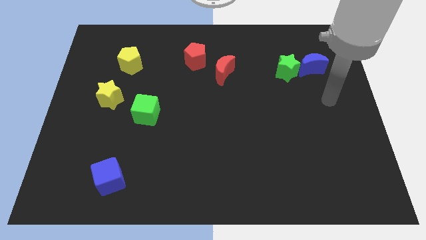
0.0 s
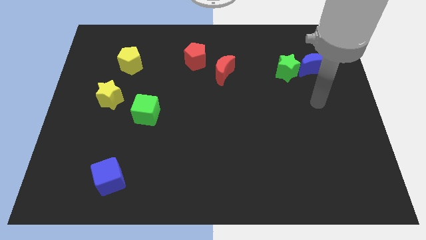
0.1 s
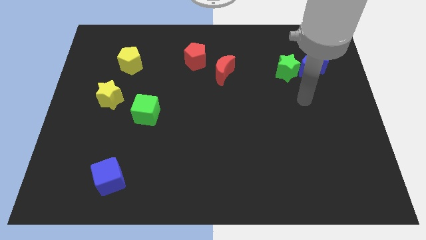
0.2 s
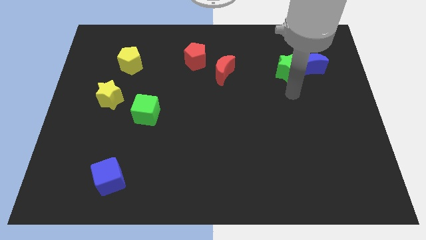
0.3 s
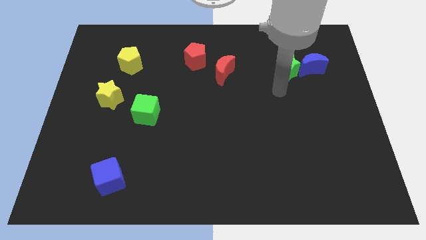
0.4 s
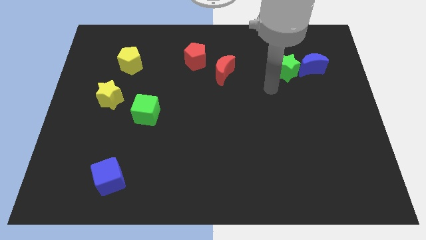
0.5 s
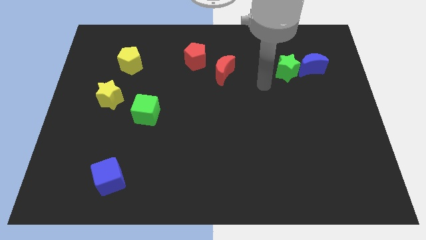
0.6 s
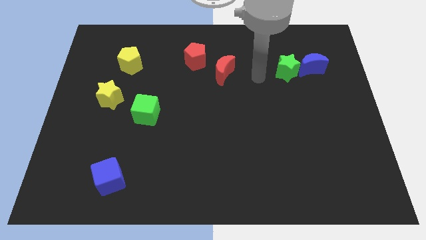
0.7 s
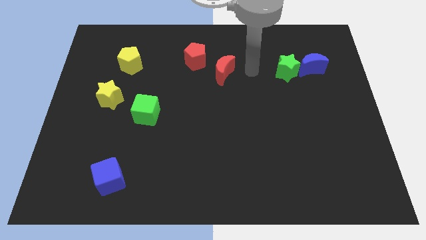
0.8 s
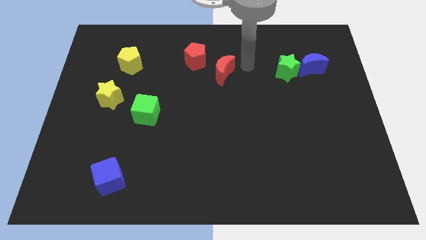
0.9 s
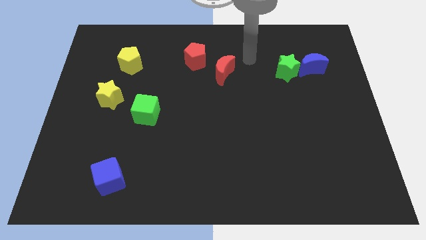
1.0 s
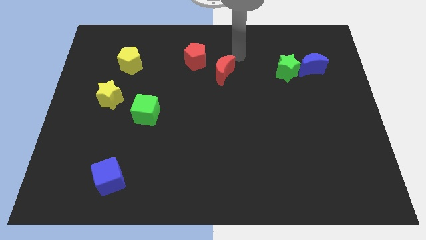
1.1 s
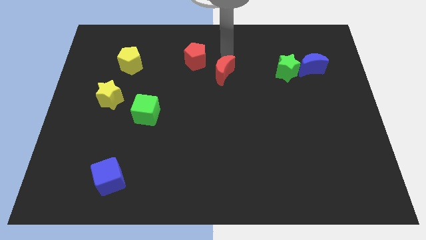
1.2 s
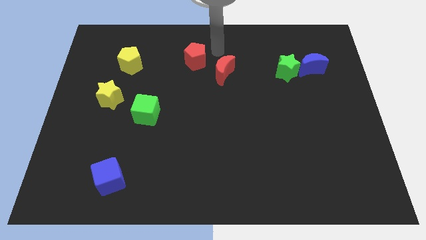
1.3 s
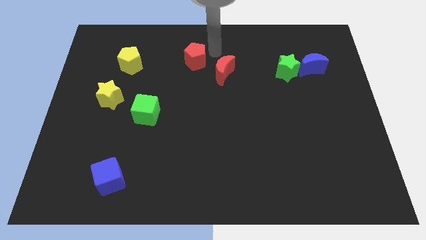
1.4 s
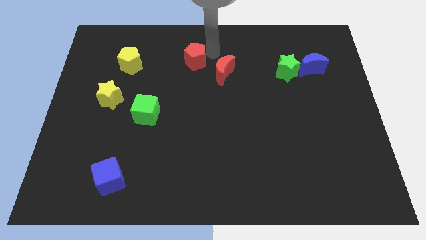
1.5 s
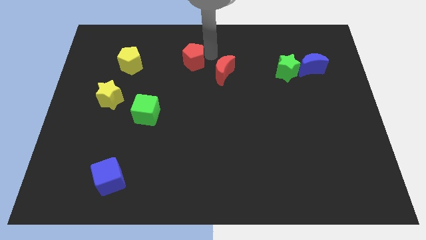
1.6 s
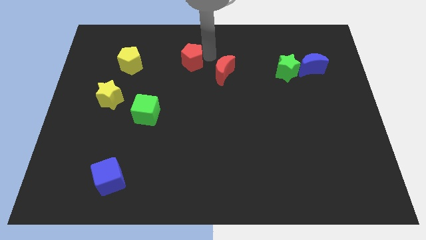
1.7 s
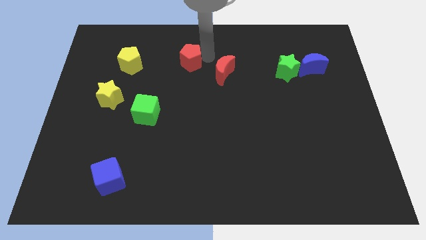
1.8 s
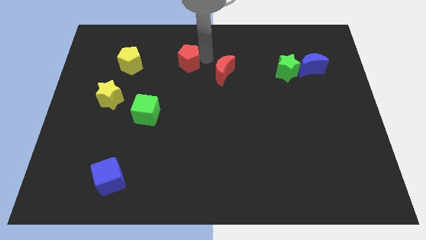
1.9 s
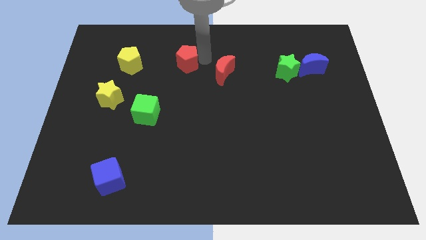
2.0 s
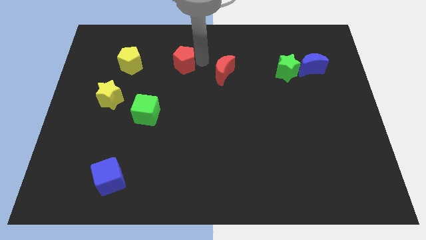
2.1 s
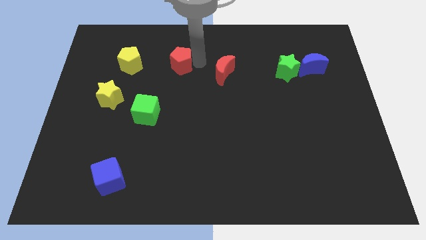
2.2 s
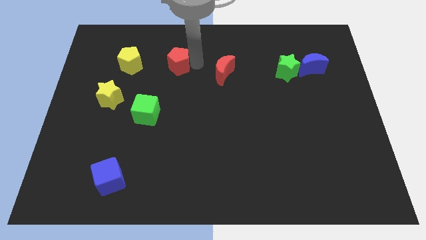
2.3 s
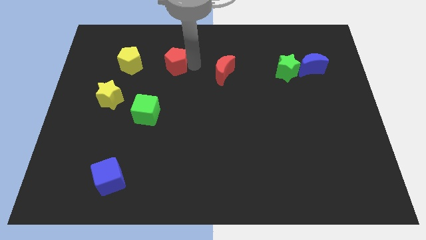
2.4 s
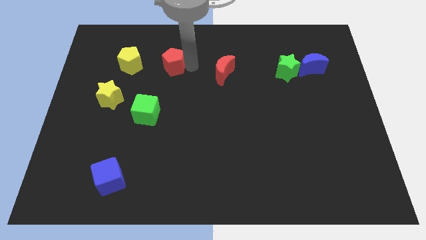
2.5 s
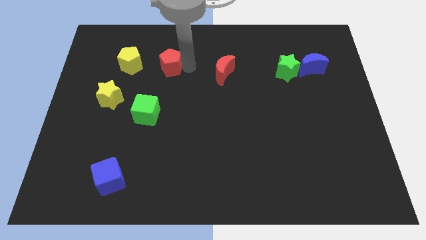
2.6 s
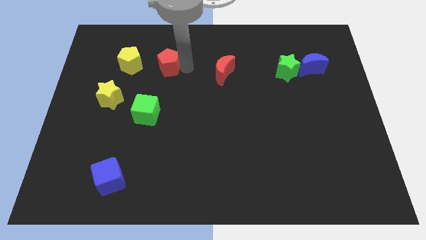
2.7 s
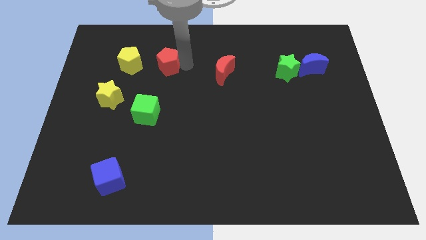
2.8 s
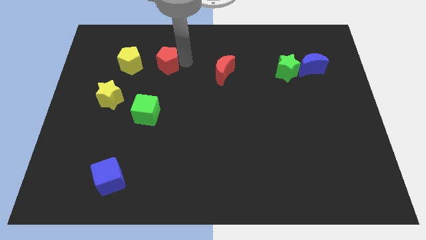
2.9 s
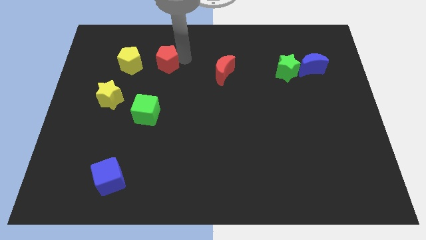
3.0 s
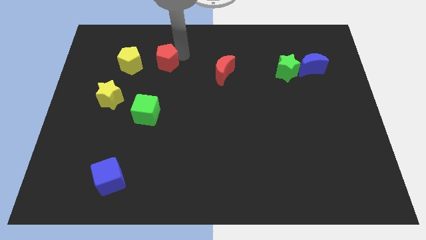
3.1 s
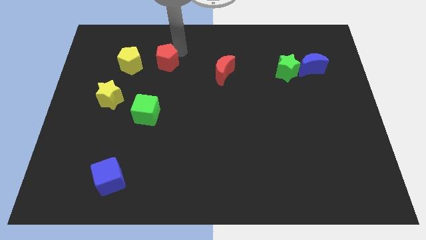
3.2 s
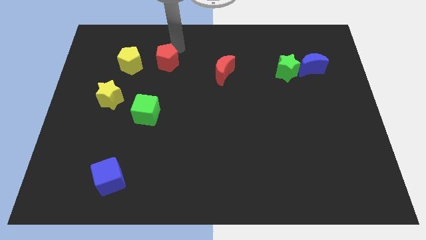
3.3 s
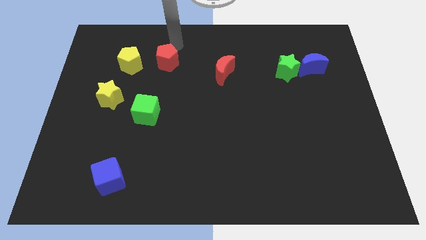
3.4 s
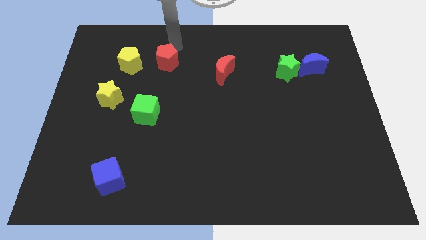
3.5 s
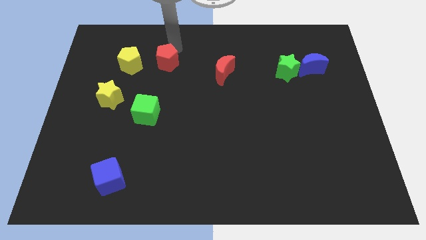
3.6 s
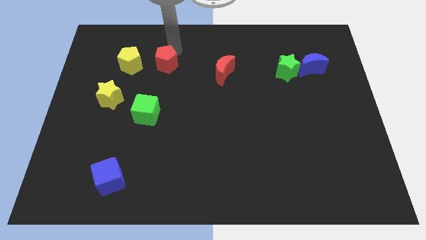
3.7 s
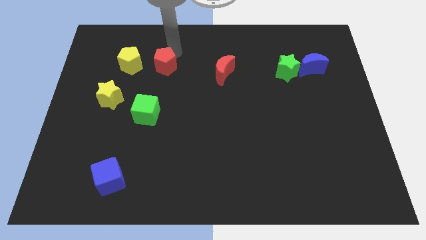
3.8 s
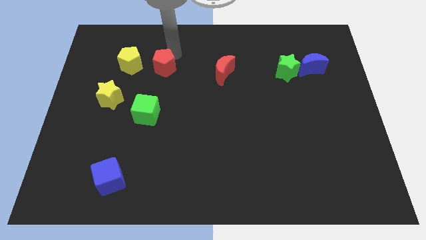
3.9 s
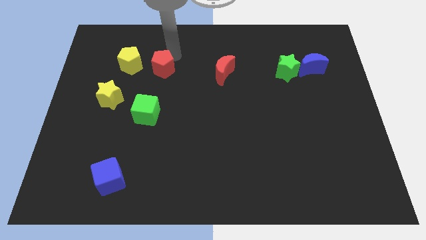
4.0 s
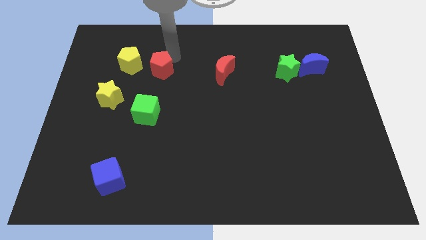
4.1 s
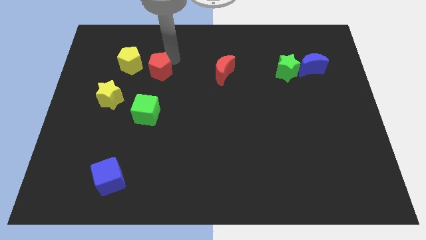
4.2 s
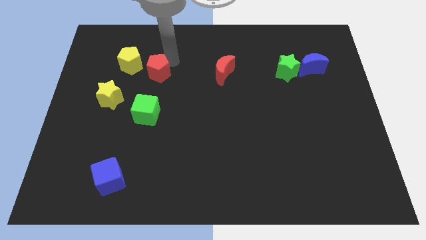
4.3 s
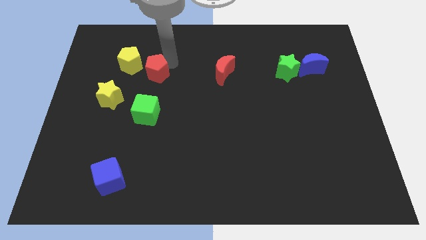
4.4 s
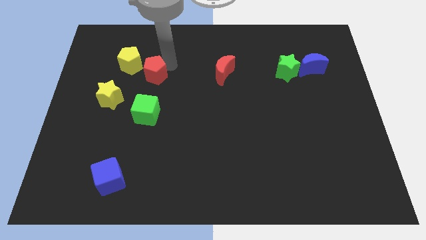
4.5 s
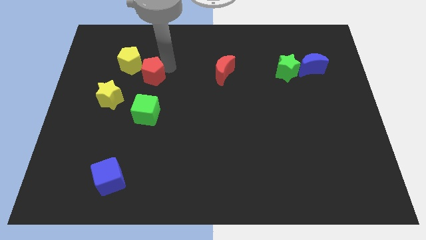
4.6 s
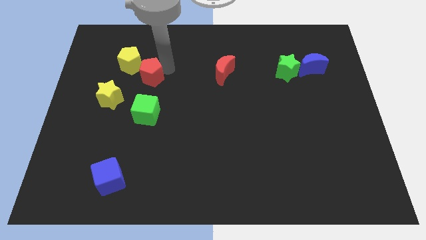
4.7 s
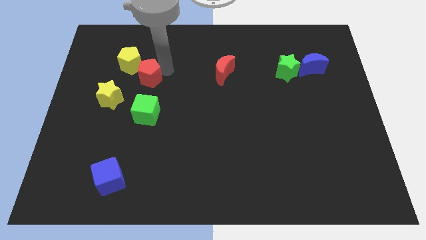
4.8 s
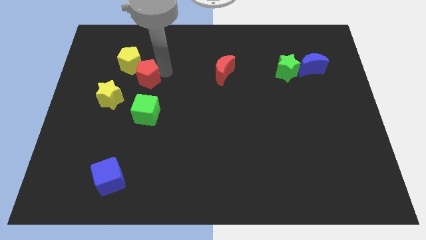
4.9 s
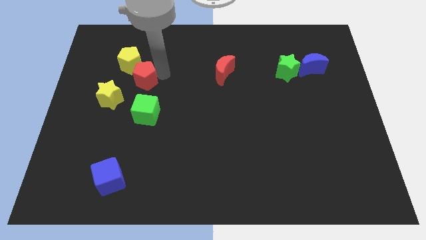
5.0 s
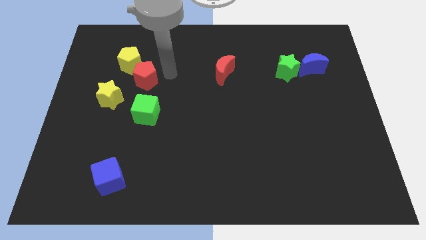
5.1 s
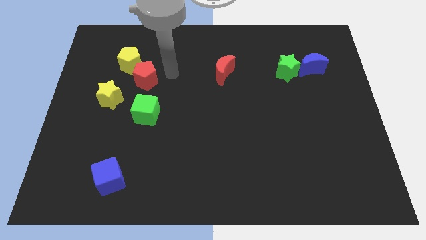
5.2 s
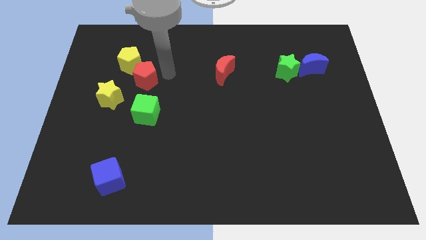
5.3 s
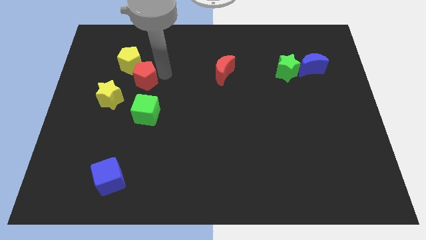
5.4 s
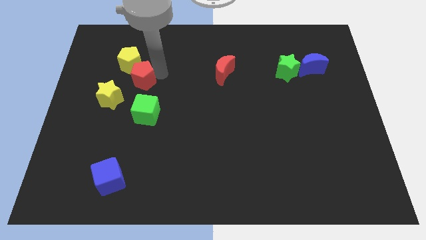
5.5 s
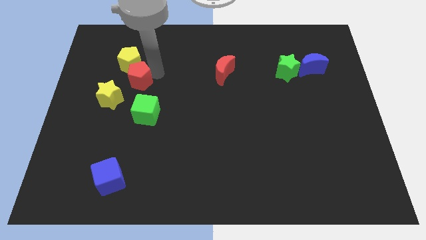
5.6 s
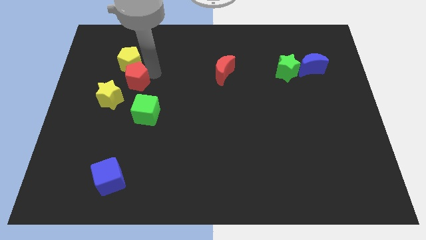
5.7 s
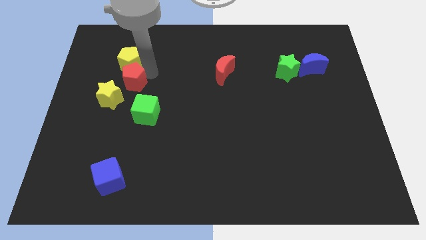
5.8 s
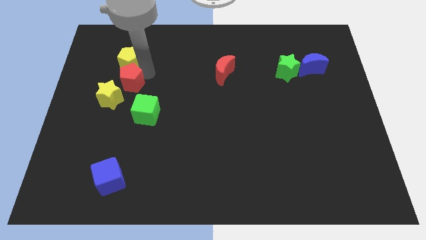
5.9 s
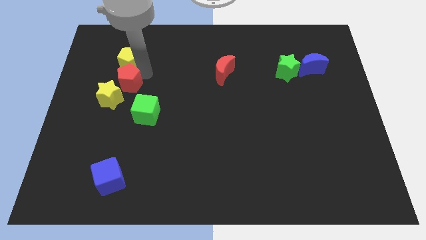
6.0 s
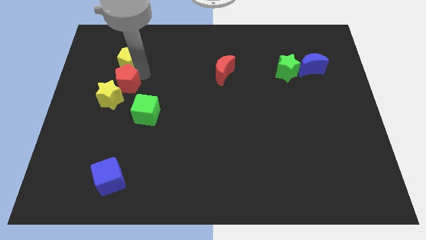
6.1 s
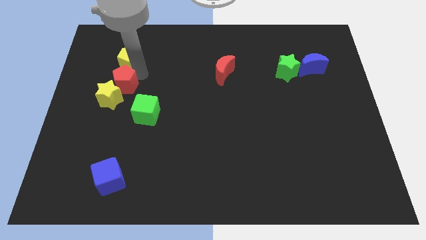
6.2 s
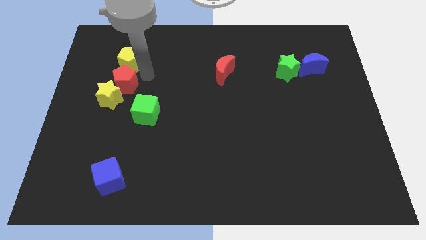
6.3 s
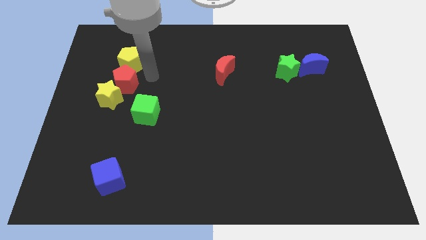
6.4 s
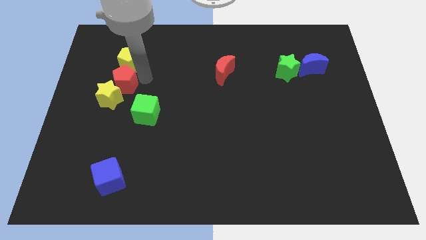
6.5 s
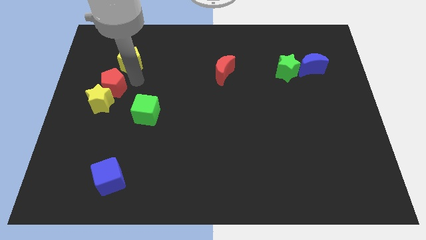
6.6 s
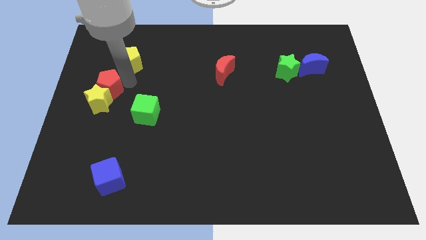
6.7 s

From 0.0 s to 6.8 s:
put the red pentagon to the left side of the board

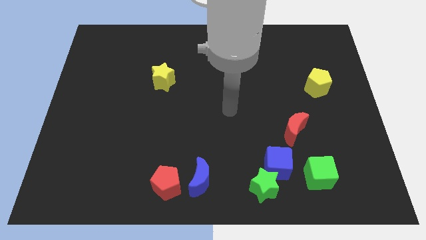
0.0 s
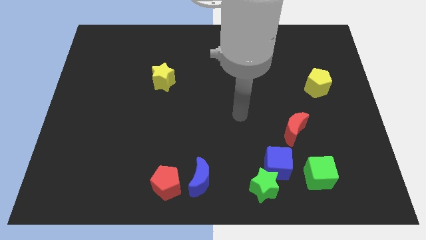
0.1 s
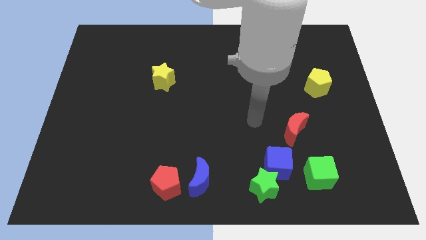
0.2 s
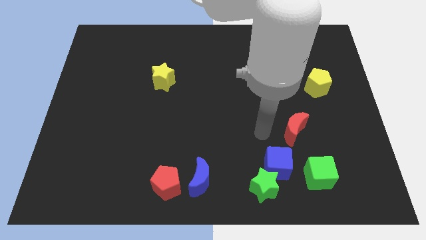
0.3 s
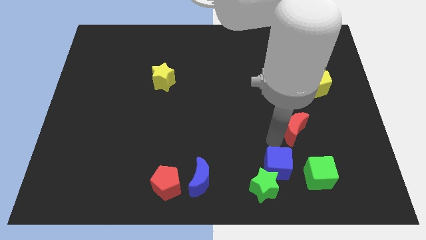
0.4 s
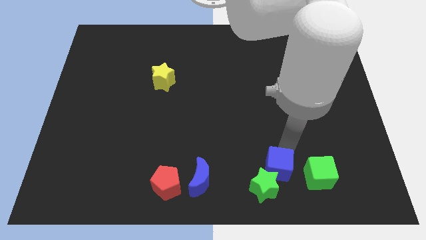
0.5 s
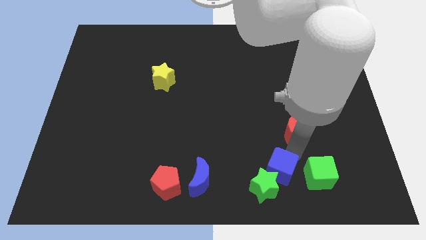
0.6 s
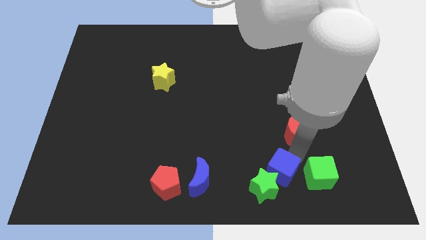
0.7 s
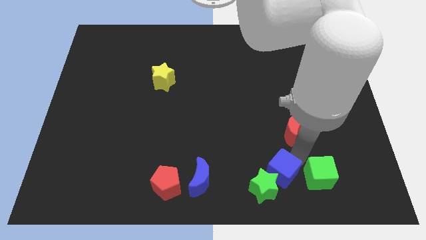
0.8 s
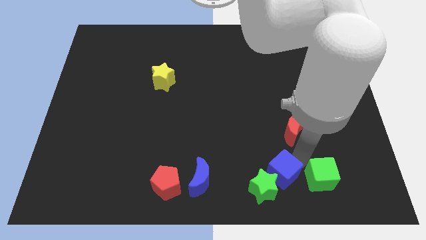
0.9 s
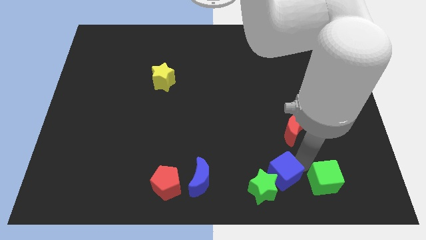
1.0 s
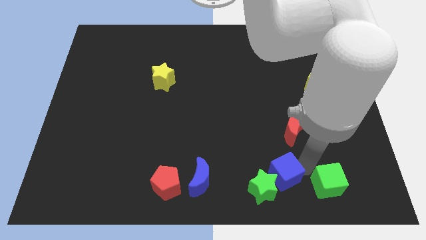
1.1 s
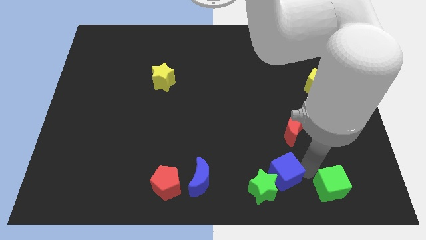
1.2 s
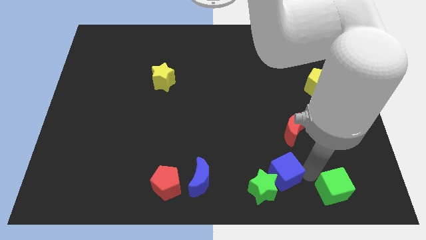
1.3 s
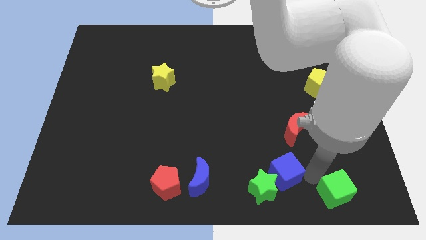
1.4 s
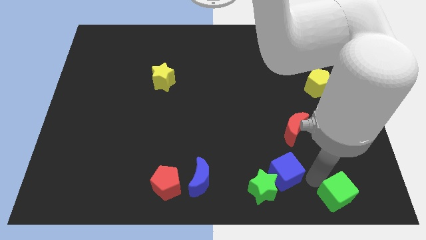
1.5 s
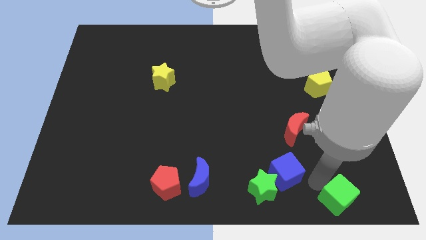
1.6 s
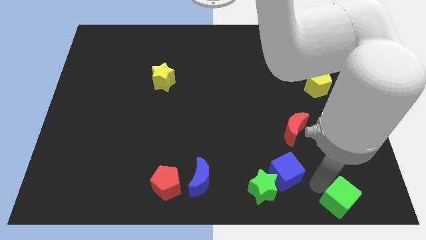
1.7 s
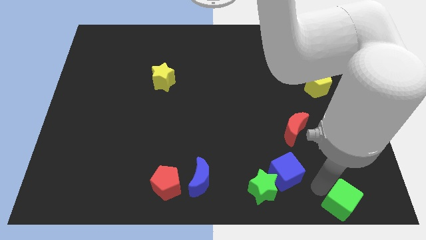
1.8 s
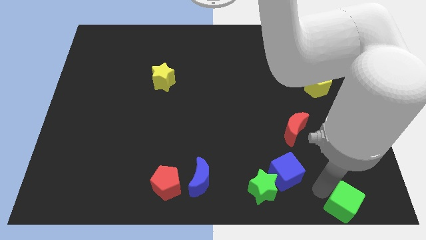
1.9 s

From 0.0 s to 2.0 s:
push the green cube to the lower right corner
